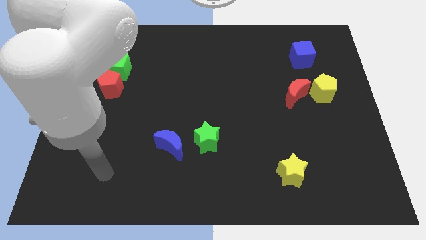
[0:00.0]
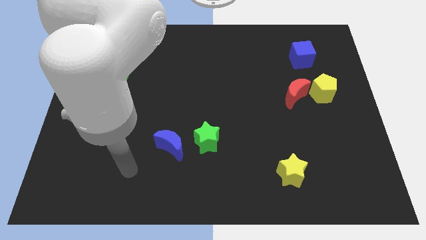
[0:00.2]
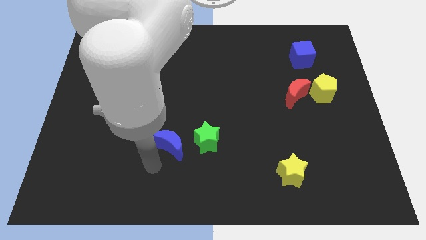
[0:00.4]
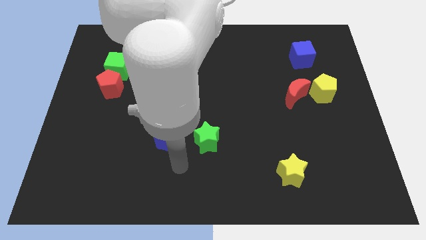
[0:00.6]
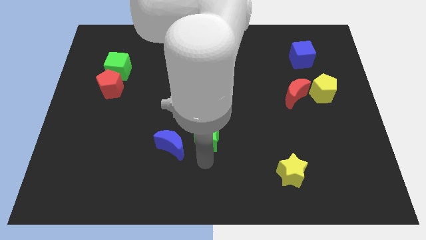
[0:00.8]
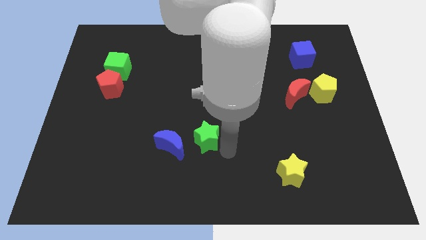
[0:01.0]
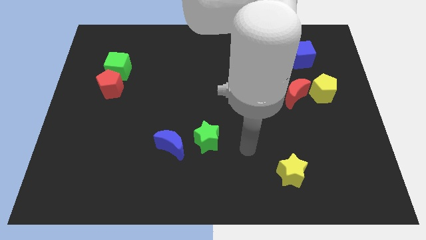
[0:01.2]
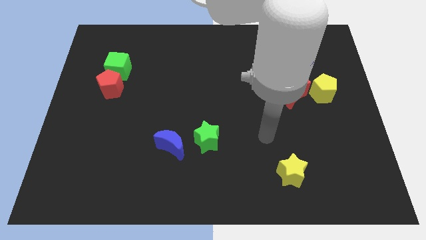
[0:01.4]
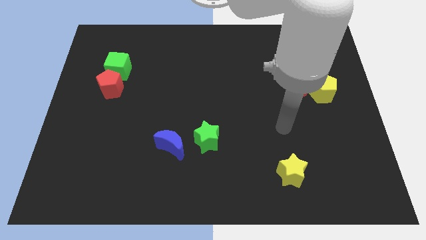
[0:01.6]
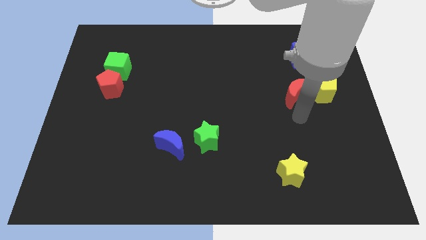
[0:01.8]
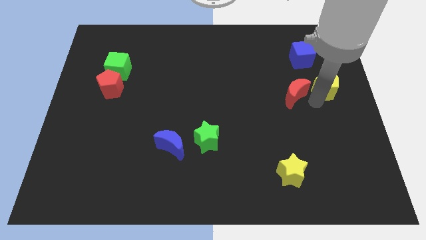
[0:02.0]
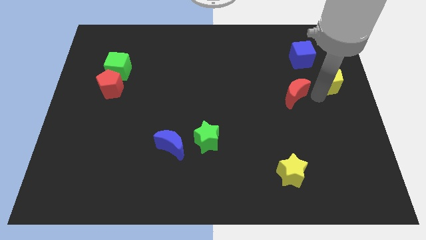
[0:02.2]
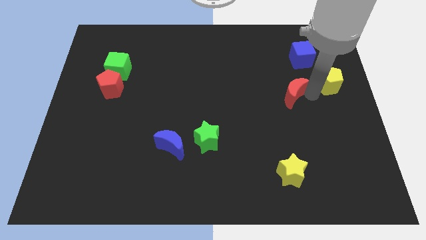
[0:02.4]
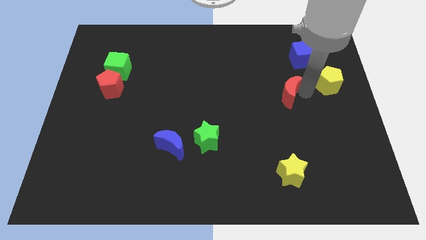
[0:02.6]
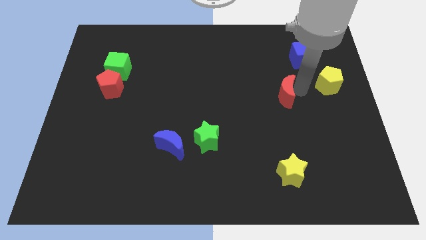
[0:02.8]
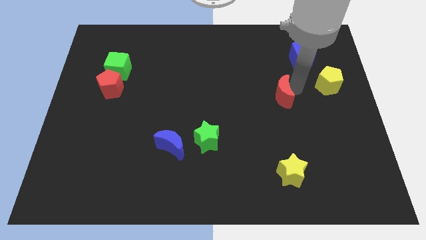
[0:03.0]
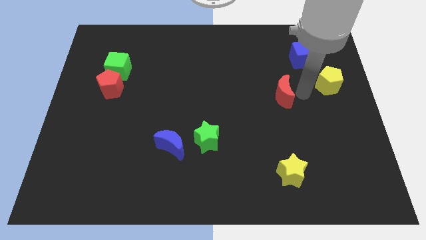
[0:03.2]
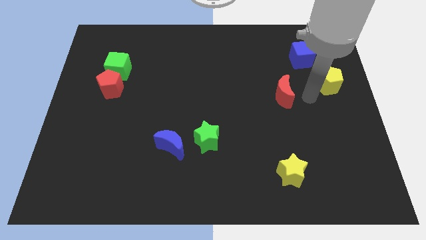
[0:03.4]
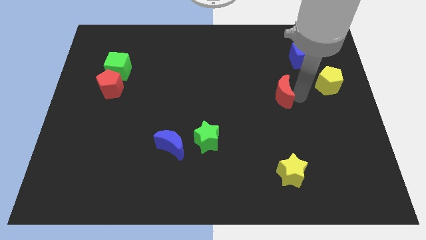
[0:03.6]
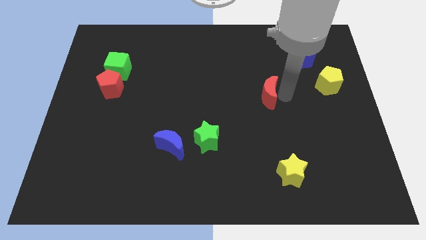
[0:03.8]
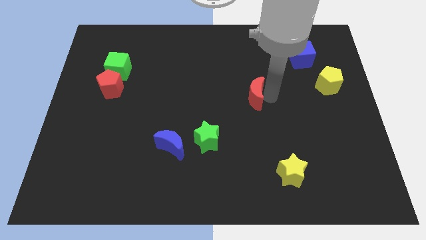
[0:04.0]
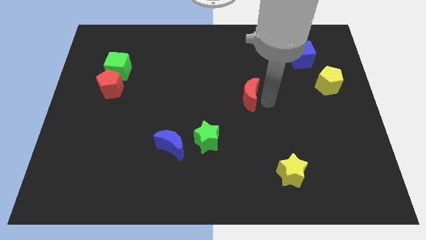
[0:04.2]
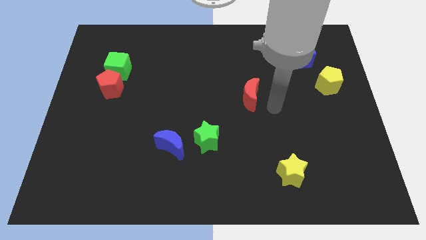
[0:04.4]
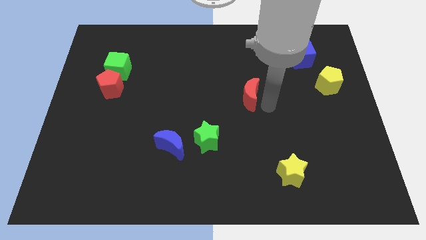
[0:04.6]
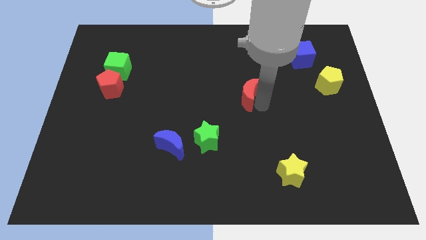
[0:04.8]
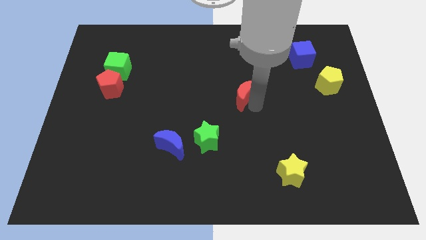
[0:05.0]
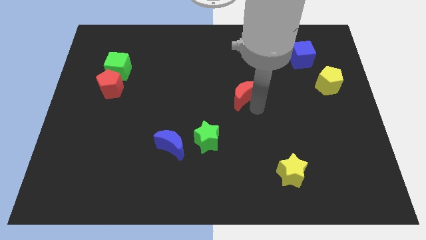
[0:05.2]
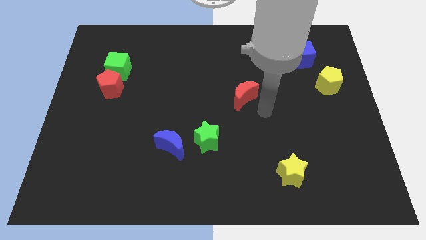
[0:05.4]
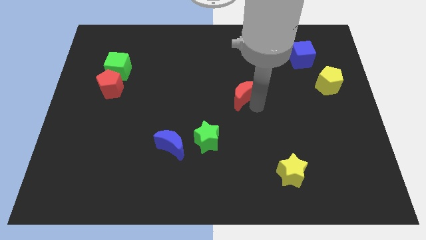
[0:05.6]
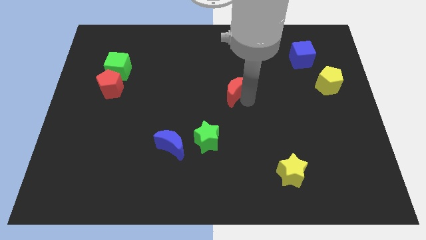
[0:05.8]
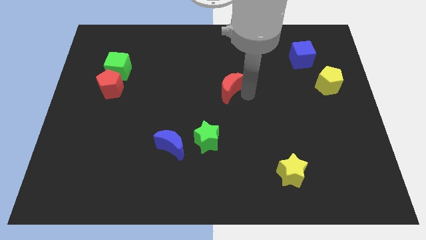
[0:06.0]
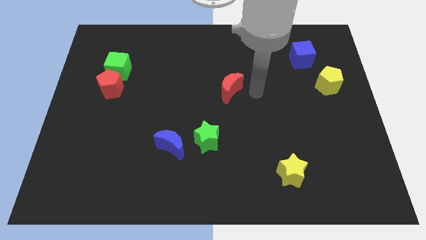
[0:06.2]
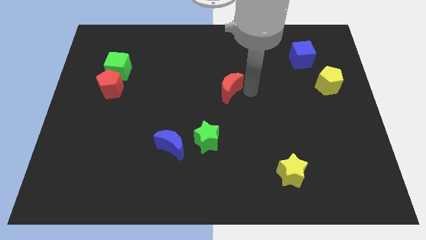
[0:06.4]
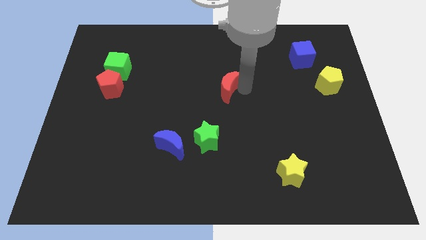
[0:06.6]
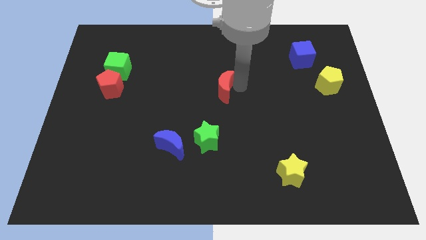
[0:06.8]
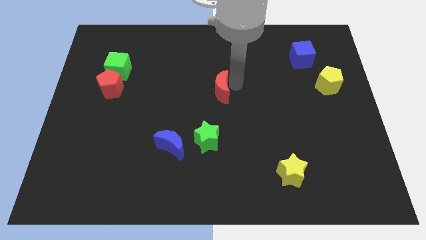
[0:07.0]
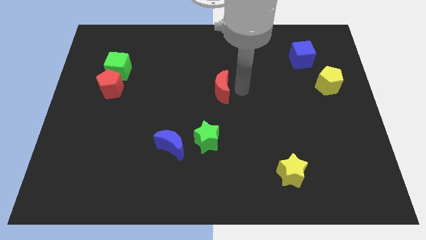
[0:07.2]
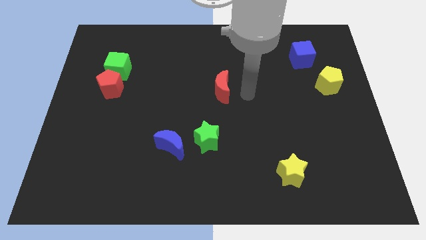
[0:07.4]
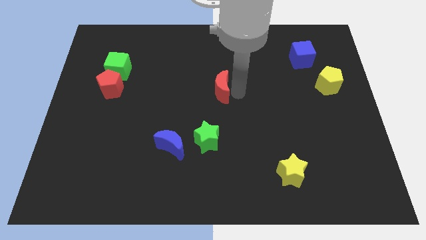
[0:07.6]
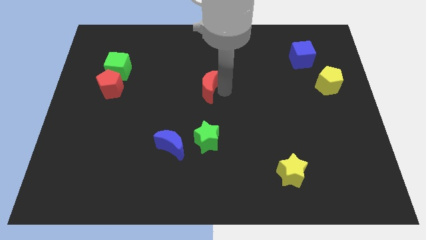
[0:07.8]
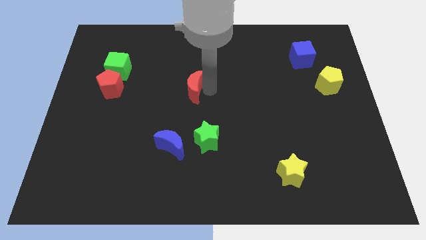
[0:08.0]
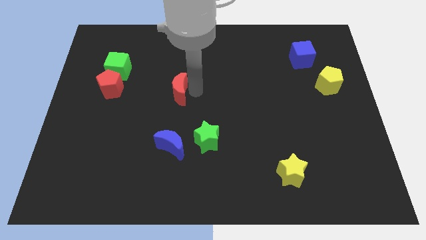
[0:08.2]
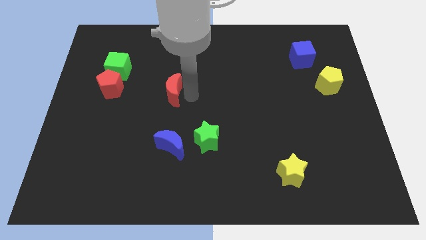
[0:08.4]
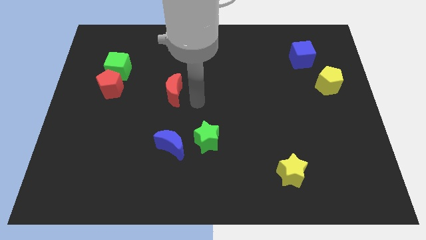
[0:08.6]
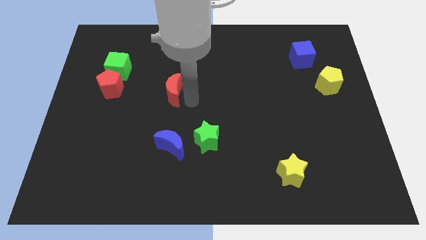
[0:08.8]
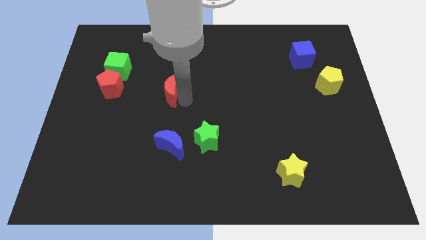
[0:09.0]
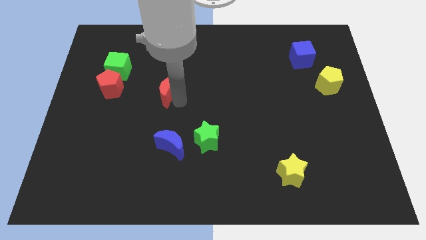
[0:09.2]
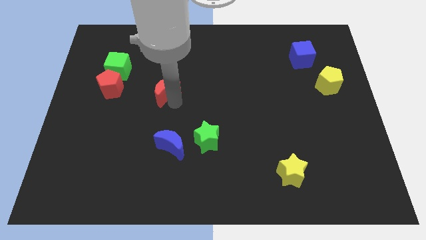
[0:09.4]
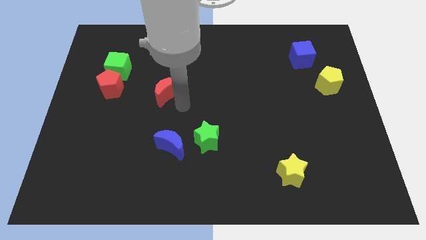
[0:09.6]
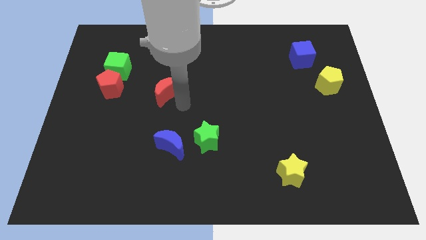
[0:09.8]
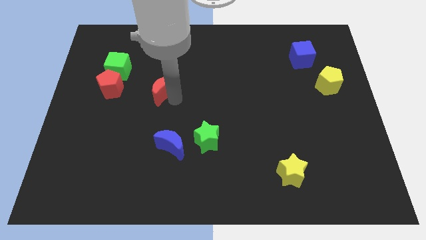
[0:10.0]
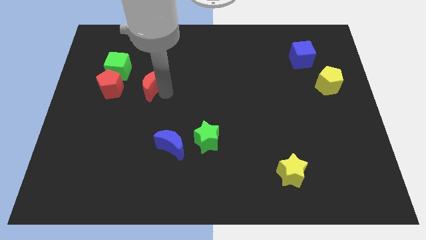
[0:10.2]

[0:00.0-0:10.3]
push the red moon to the bottom right of the green cube

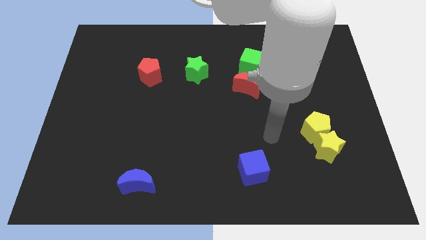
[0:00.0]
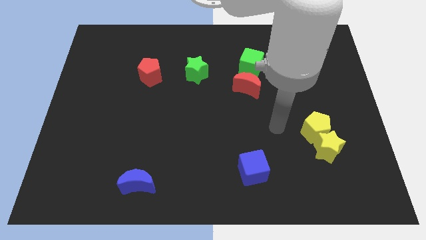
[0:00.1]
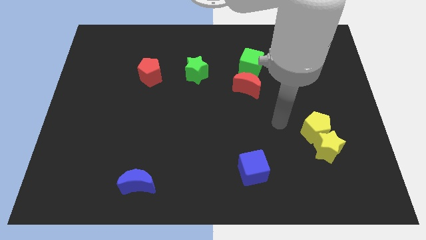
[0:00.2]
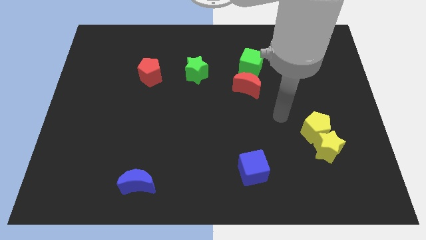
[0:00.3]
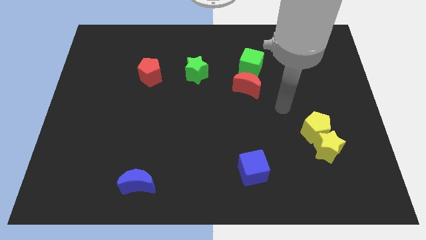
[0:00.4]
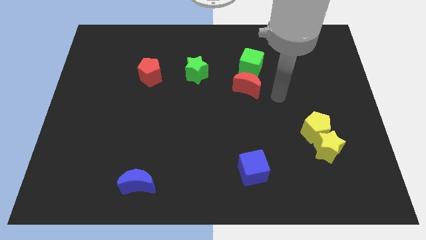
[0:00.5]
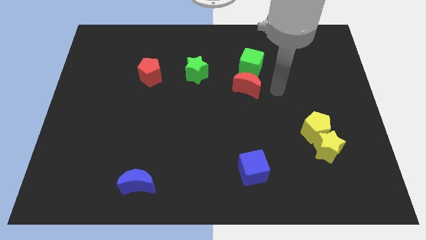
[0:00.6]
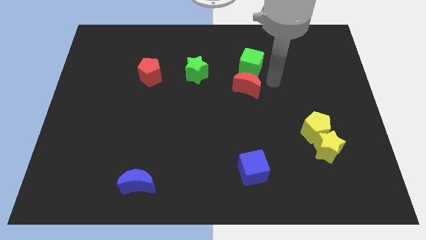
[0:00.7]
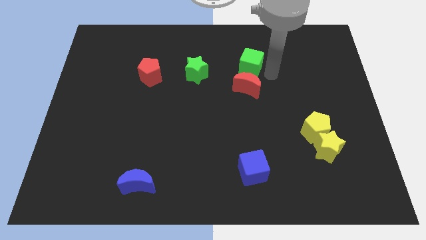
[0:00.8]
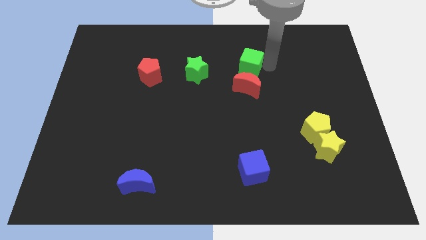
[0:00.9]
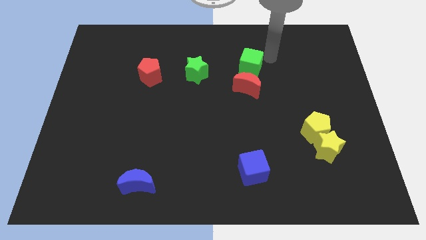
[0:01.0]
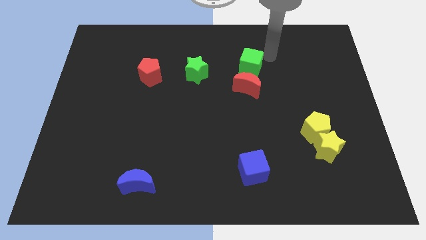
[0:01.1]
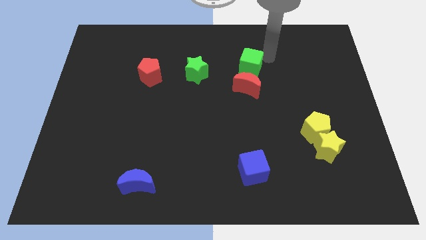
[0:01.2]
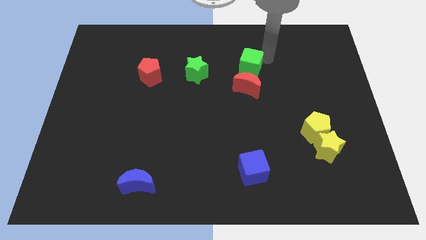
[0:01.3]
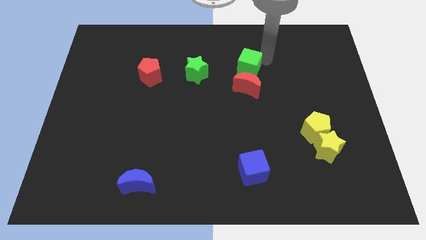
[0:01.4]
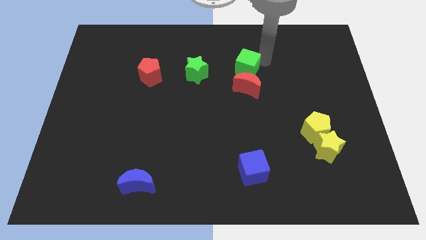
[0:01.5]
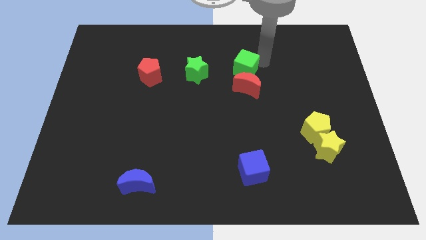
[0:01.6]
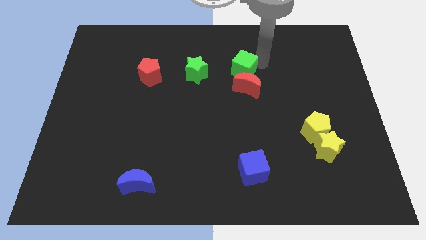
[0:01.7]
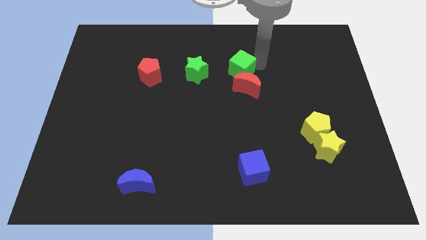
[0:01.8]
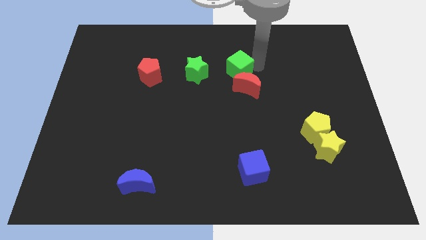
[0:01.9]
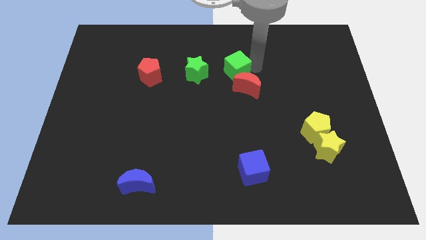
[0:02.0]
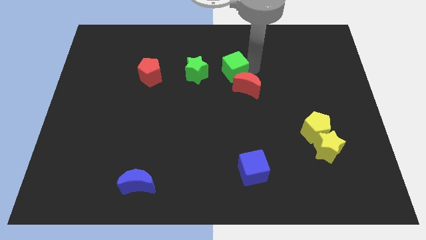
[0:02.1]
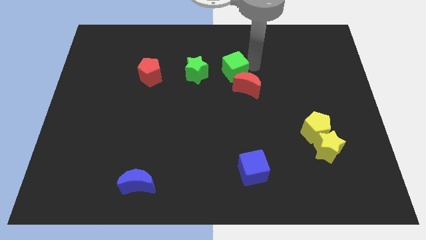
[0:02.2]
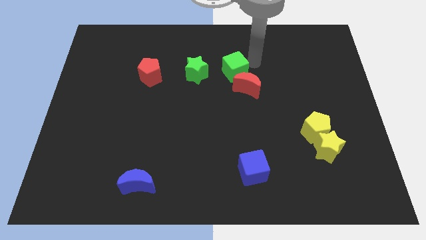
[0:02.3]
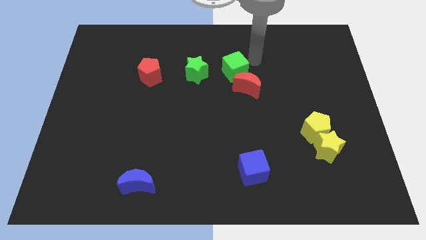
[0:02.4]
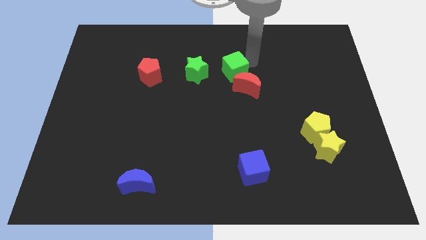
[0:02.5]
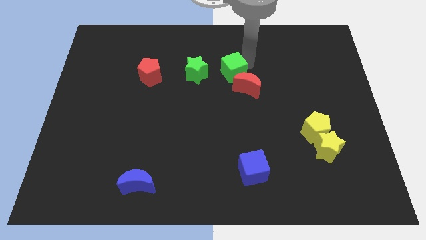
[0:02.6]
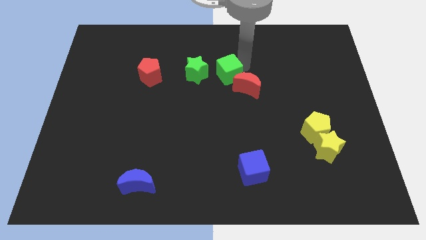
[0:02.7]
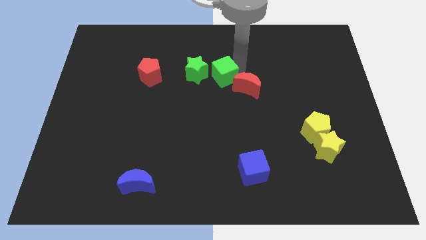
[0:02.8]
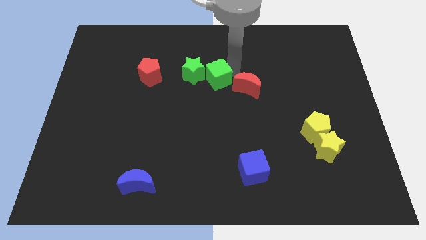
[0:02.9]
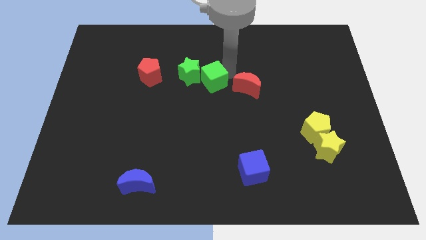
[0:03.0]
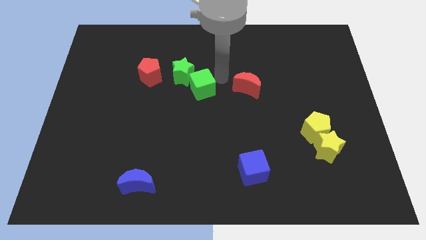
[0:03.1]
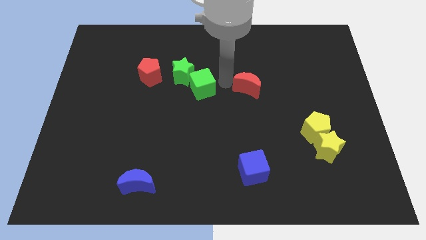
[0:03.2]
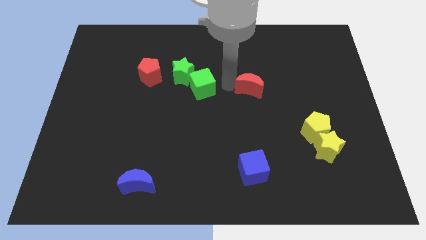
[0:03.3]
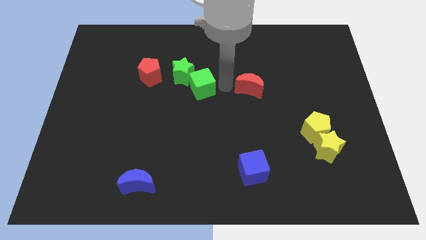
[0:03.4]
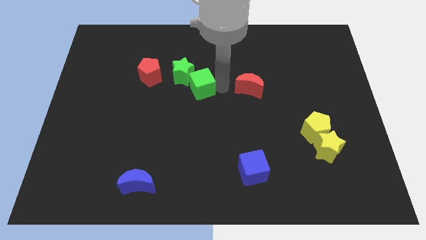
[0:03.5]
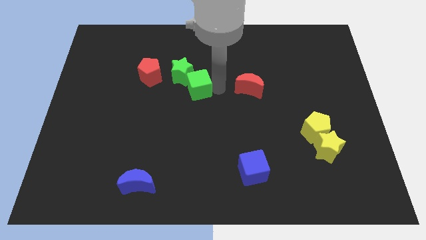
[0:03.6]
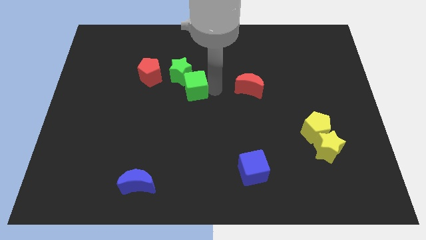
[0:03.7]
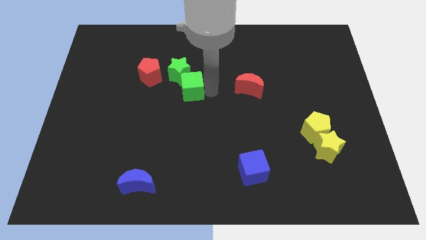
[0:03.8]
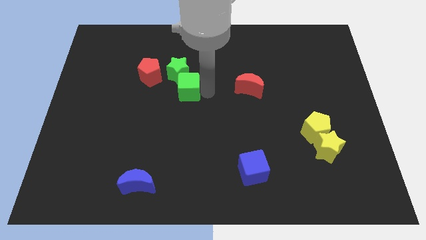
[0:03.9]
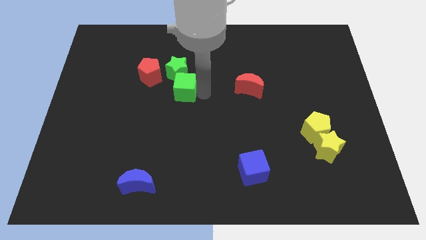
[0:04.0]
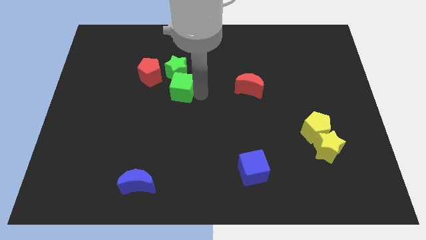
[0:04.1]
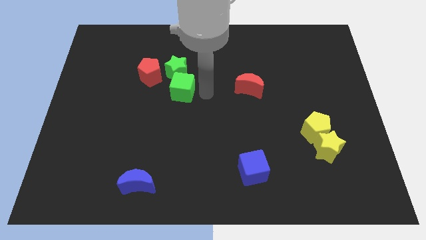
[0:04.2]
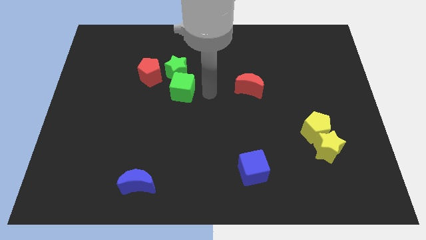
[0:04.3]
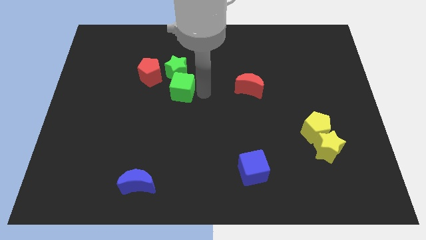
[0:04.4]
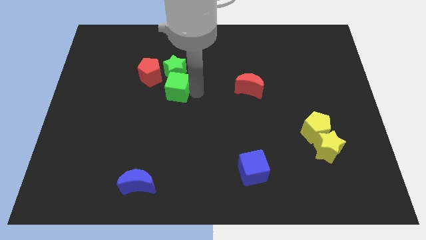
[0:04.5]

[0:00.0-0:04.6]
move the green cube to the bottom left side of the green star
